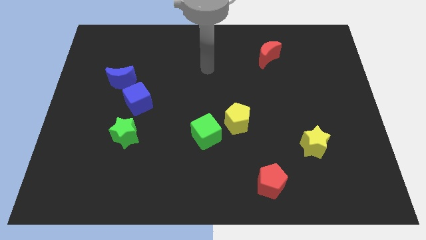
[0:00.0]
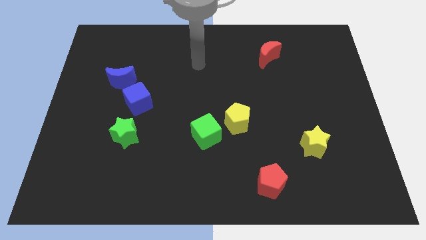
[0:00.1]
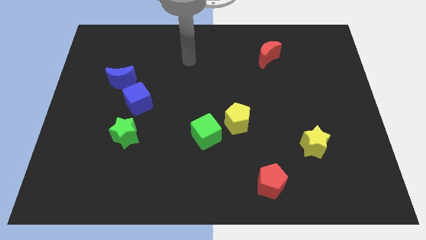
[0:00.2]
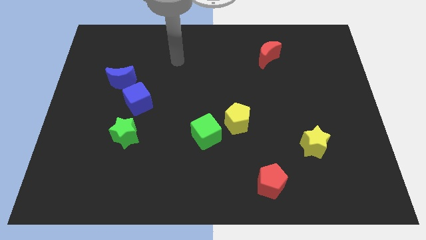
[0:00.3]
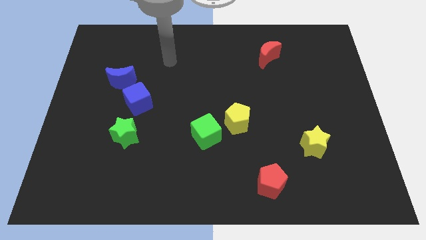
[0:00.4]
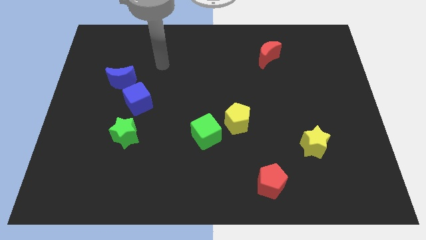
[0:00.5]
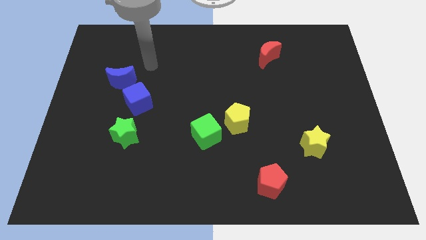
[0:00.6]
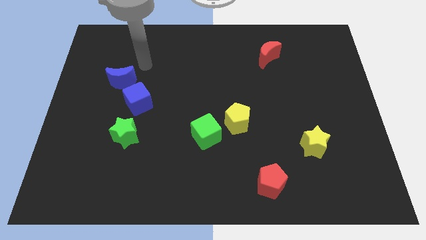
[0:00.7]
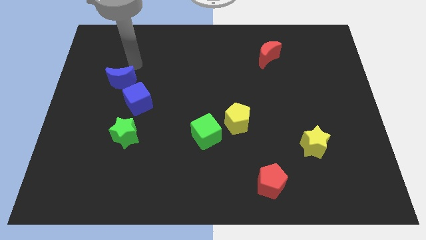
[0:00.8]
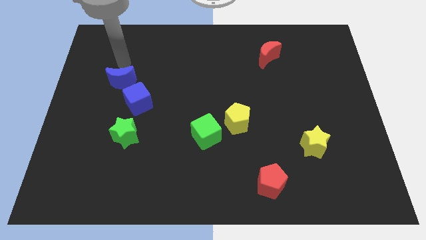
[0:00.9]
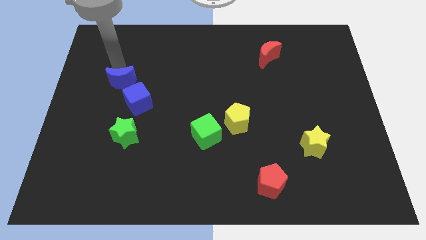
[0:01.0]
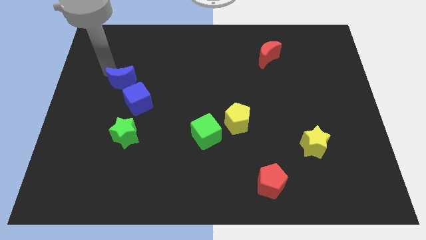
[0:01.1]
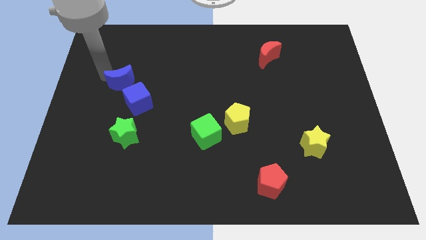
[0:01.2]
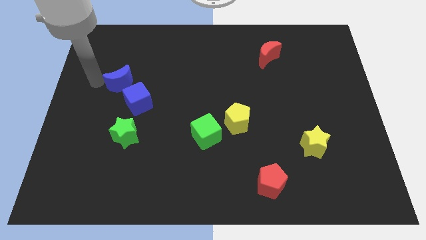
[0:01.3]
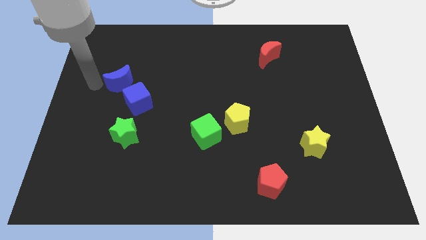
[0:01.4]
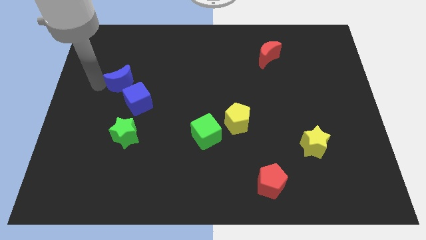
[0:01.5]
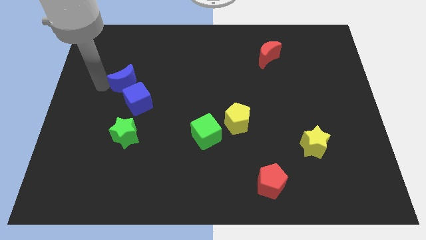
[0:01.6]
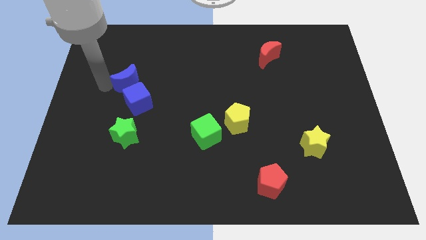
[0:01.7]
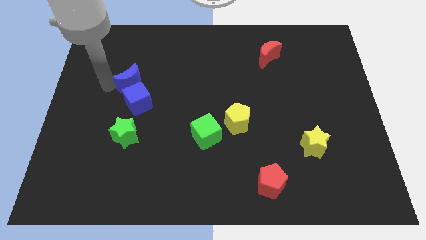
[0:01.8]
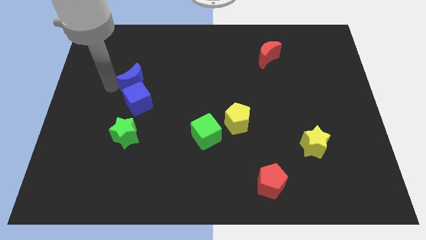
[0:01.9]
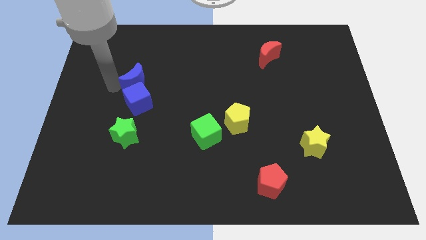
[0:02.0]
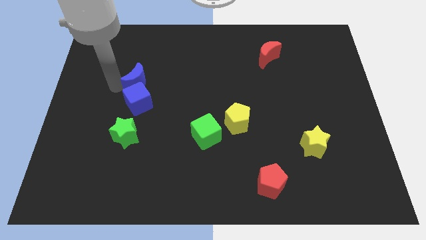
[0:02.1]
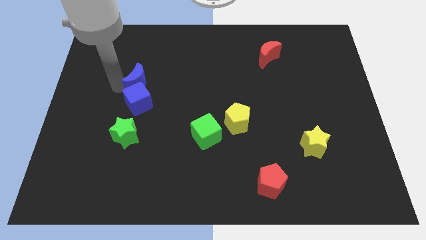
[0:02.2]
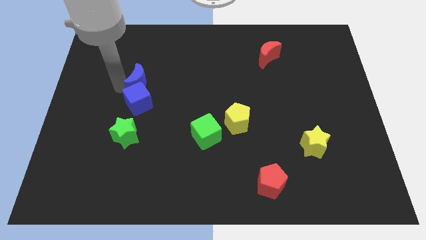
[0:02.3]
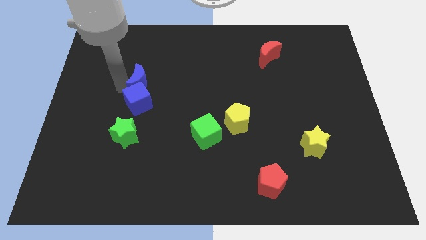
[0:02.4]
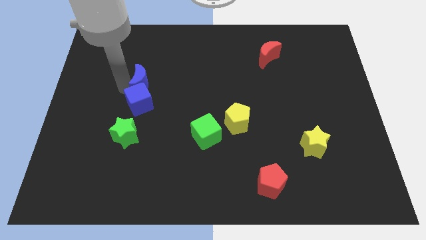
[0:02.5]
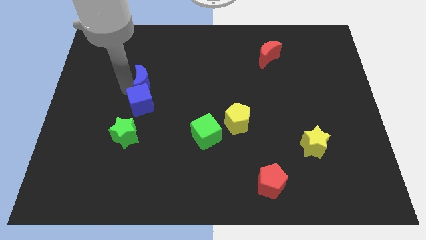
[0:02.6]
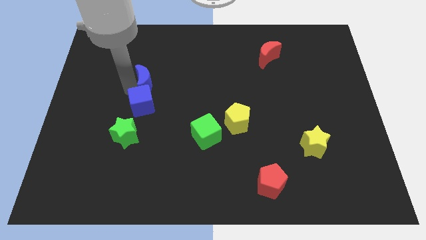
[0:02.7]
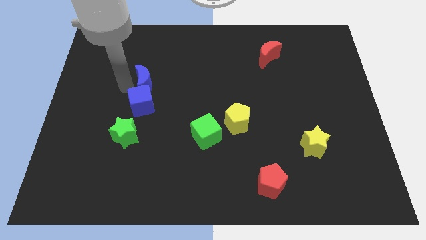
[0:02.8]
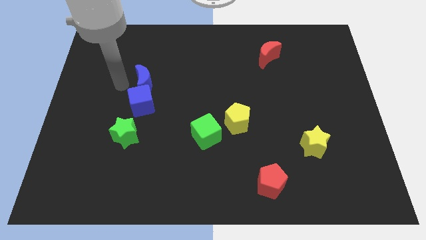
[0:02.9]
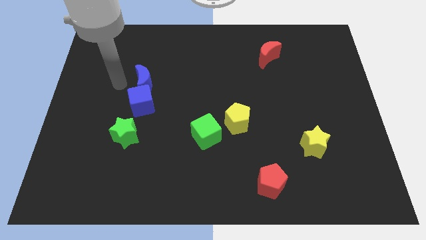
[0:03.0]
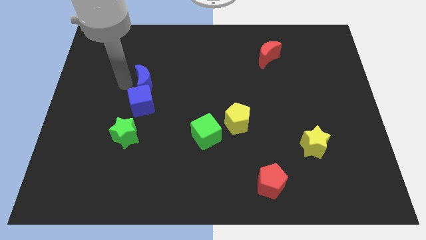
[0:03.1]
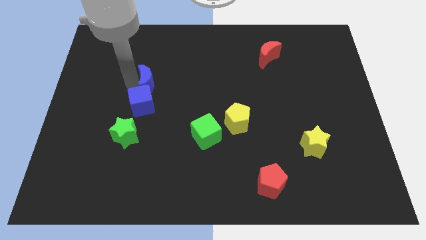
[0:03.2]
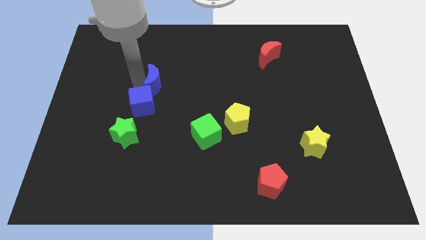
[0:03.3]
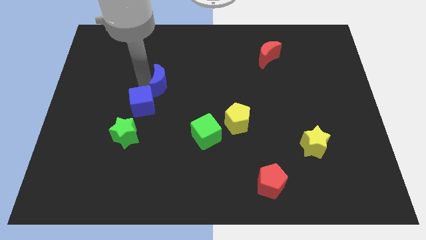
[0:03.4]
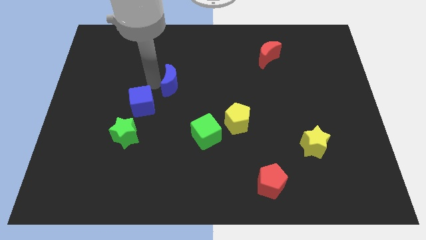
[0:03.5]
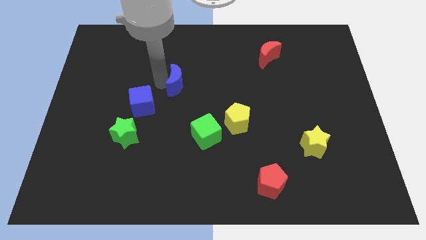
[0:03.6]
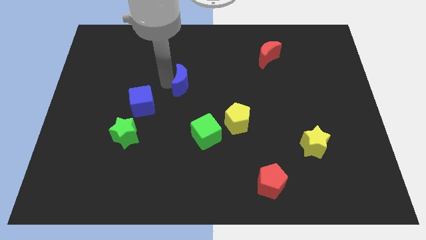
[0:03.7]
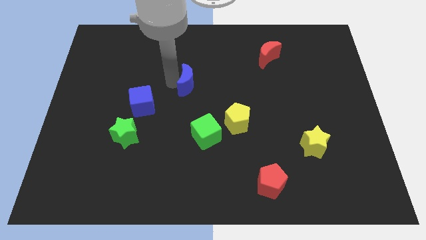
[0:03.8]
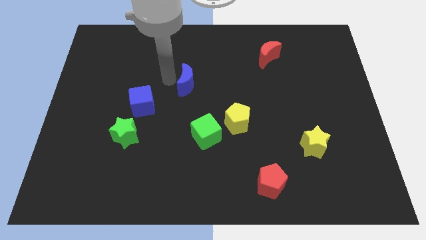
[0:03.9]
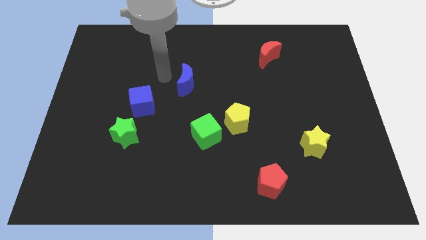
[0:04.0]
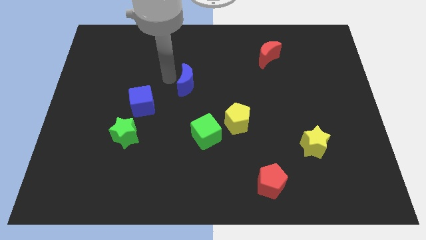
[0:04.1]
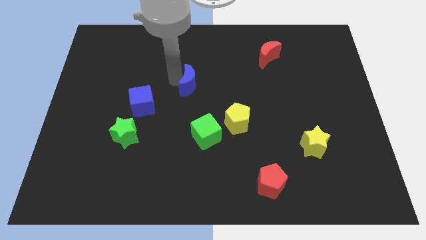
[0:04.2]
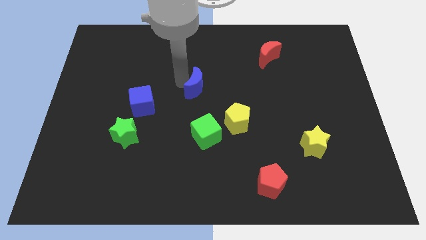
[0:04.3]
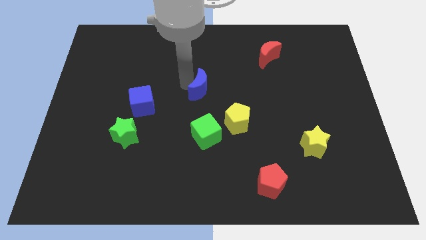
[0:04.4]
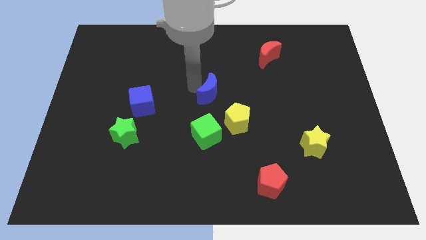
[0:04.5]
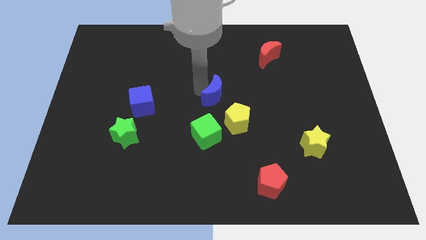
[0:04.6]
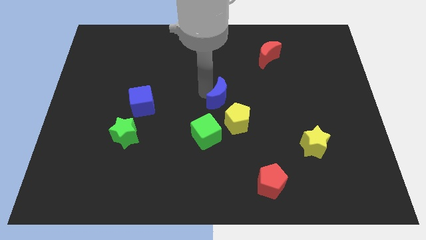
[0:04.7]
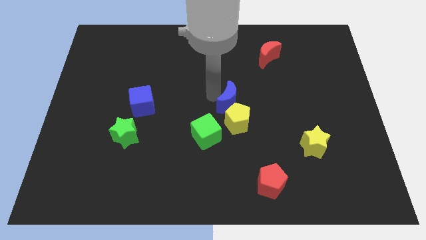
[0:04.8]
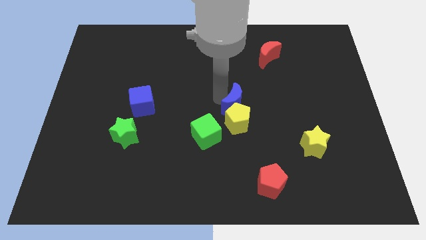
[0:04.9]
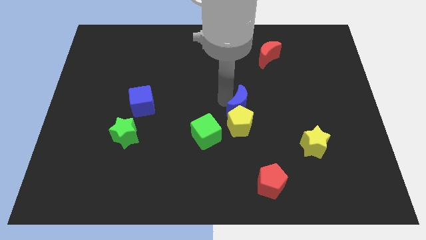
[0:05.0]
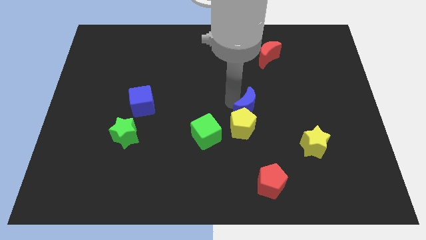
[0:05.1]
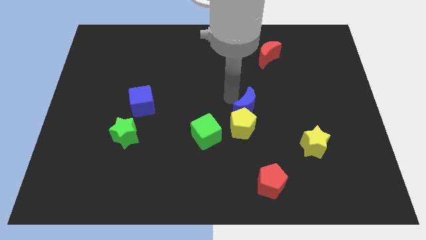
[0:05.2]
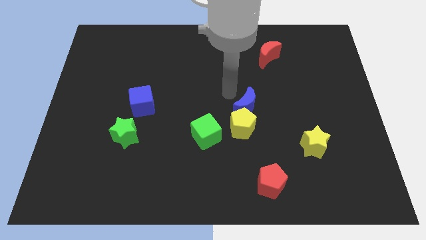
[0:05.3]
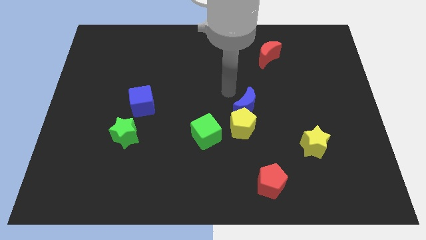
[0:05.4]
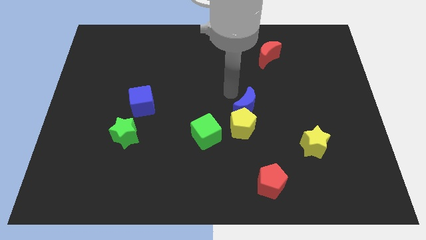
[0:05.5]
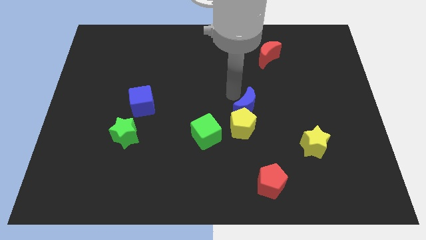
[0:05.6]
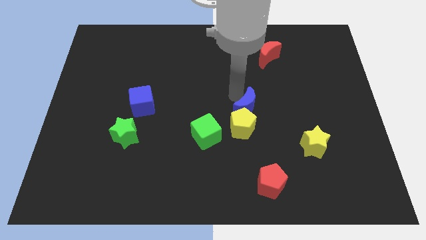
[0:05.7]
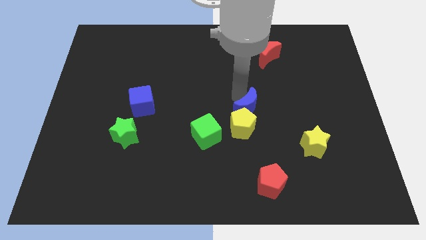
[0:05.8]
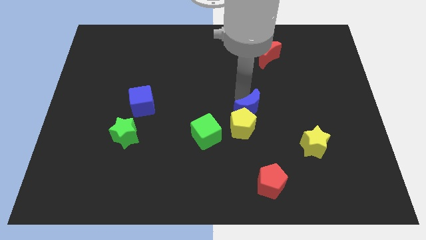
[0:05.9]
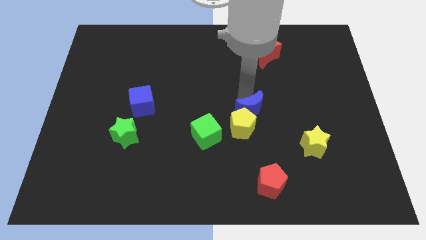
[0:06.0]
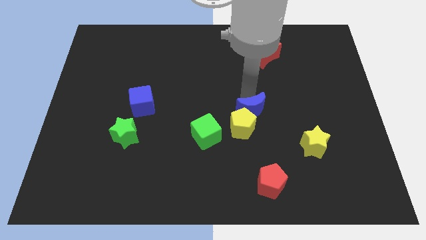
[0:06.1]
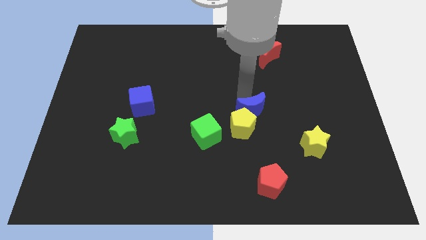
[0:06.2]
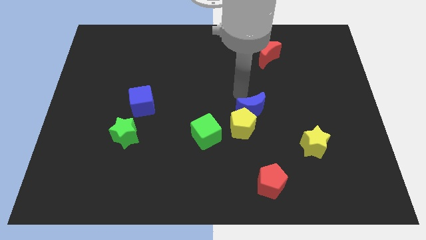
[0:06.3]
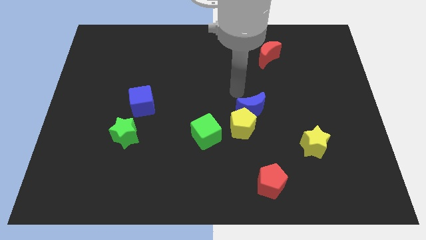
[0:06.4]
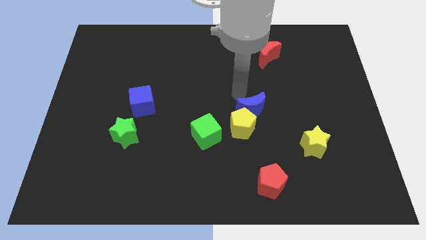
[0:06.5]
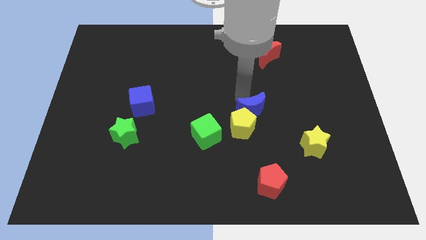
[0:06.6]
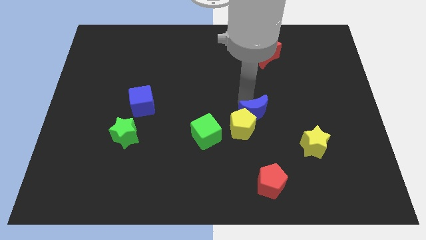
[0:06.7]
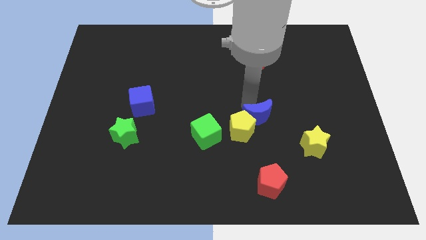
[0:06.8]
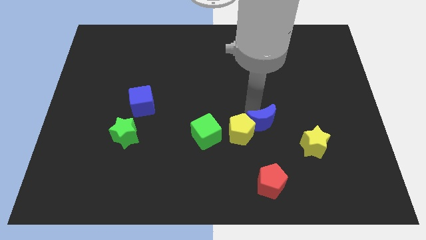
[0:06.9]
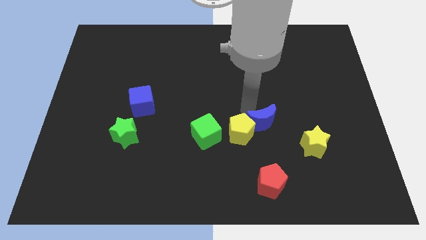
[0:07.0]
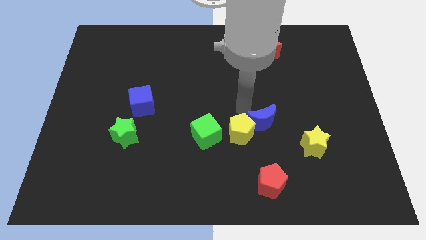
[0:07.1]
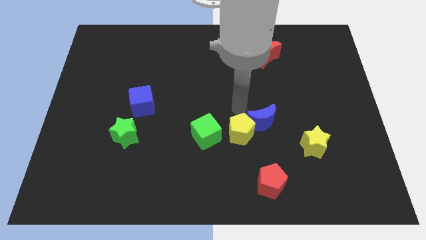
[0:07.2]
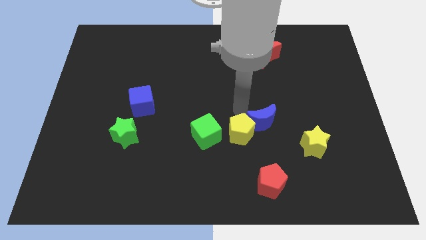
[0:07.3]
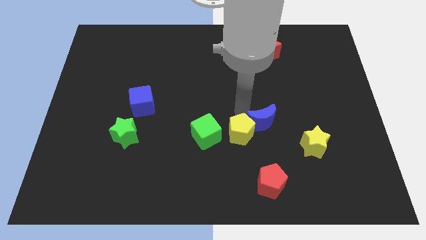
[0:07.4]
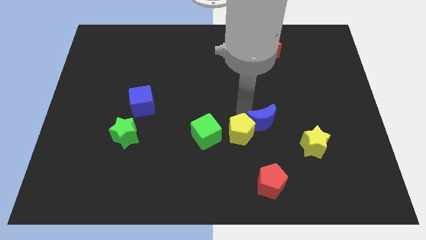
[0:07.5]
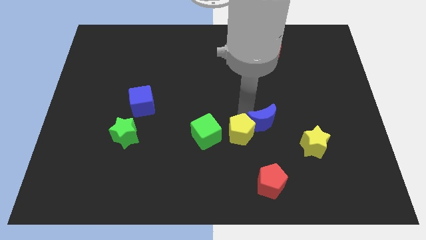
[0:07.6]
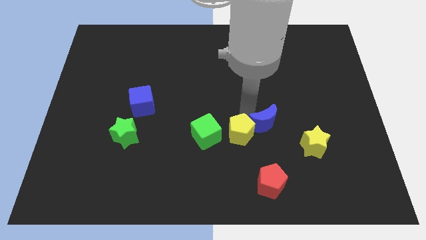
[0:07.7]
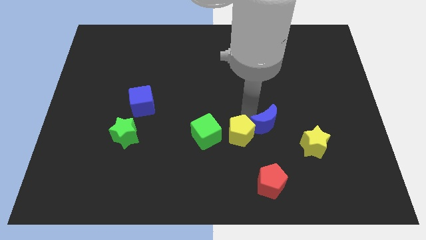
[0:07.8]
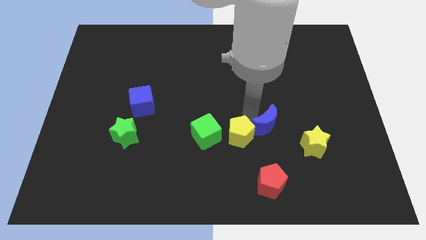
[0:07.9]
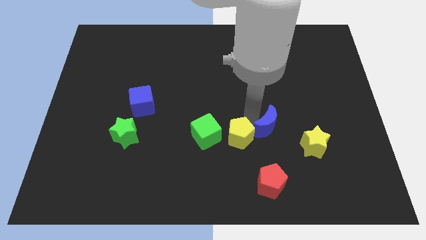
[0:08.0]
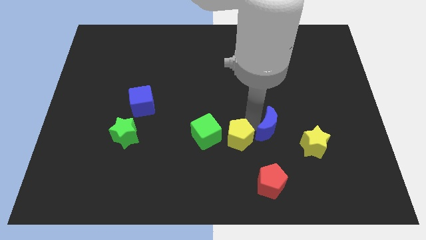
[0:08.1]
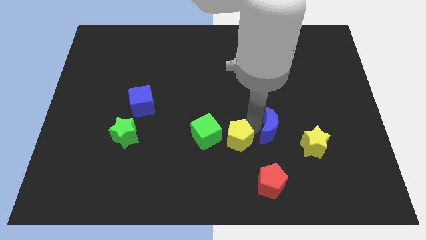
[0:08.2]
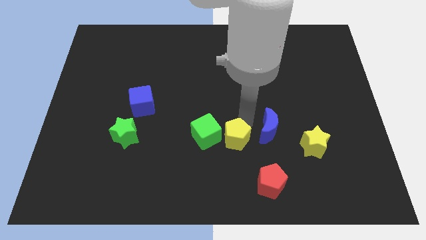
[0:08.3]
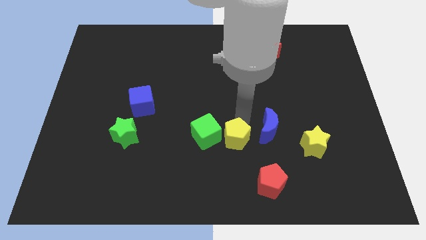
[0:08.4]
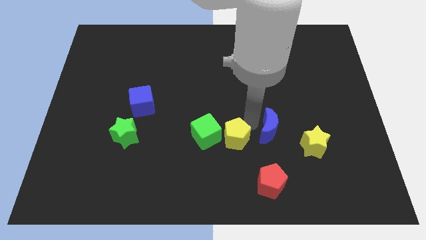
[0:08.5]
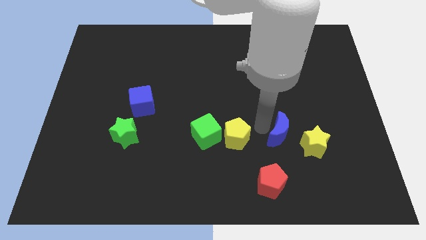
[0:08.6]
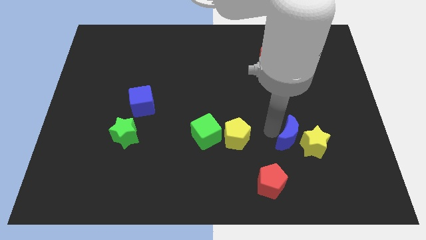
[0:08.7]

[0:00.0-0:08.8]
push the blue moon close to the yellow star
